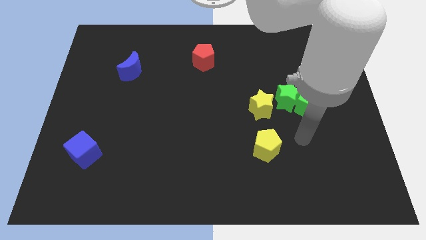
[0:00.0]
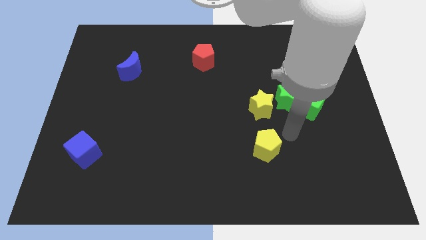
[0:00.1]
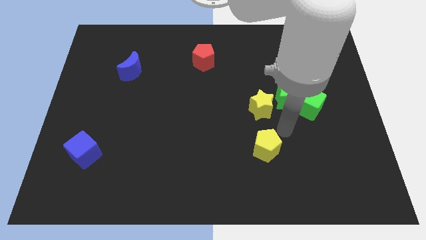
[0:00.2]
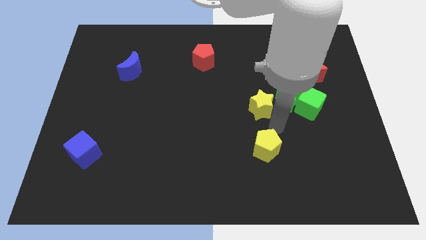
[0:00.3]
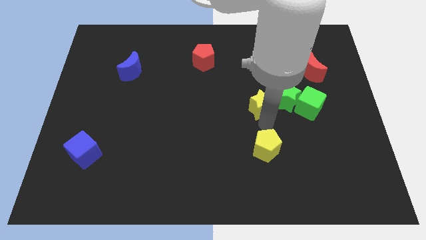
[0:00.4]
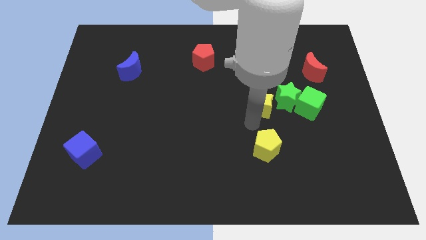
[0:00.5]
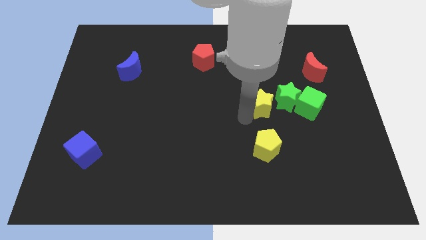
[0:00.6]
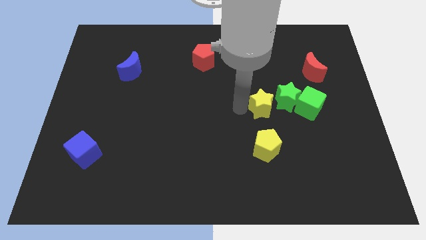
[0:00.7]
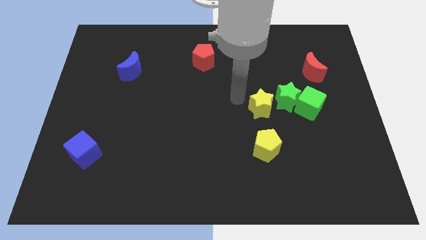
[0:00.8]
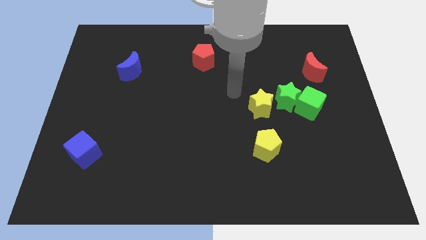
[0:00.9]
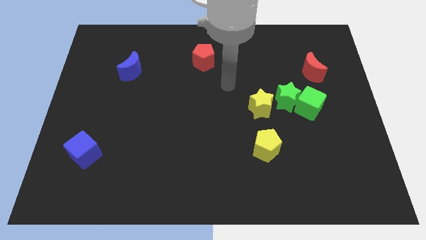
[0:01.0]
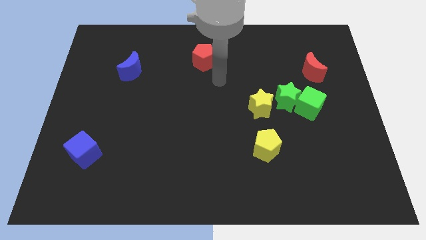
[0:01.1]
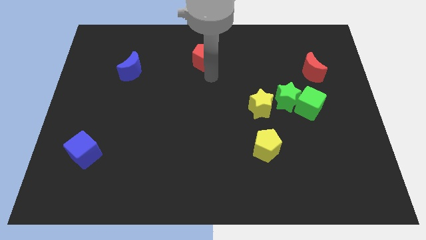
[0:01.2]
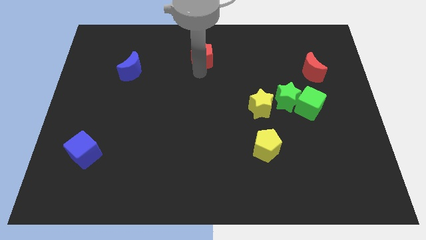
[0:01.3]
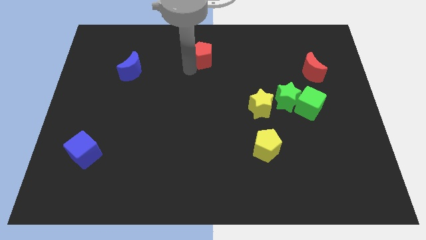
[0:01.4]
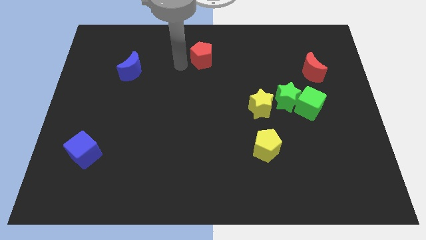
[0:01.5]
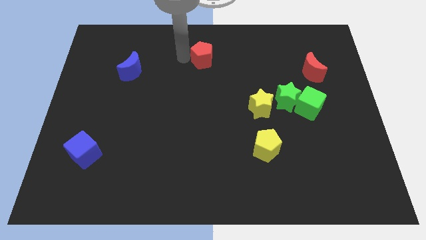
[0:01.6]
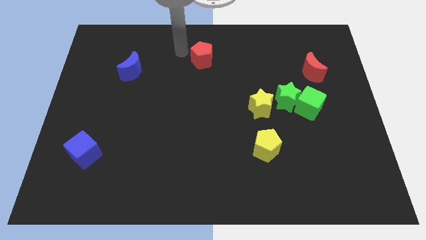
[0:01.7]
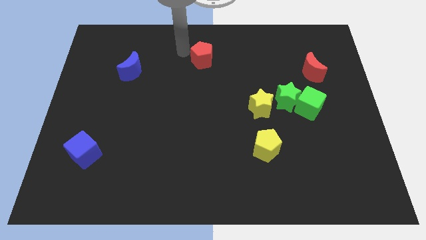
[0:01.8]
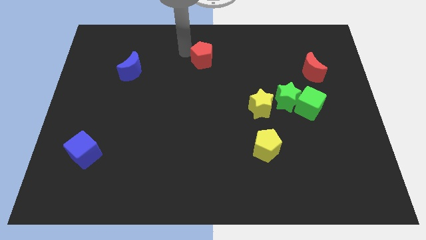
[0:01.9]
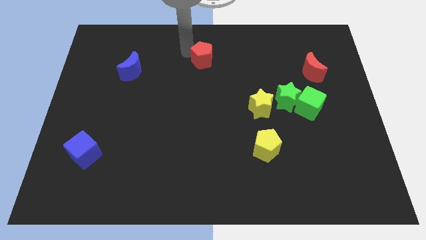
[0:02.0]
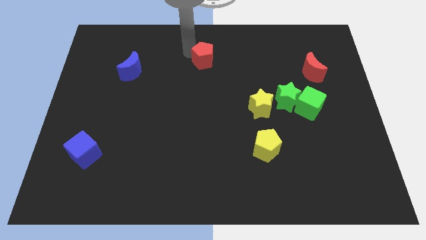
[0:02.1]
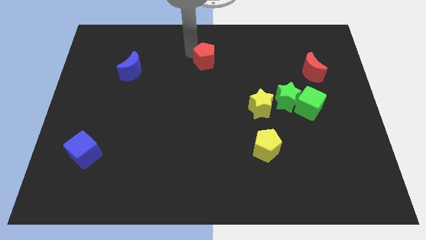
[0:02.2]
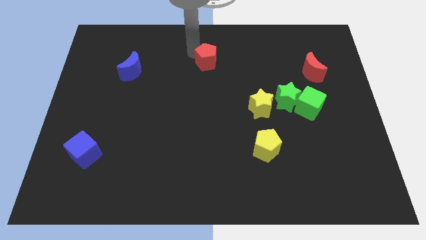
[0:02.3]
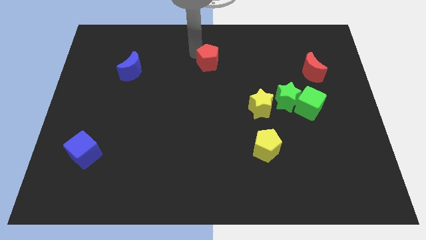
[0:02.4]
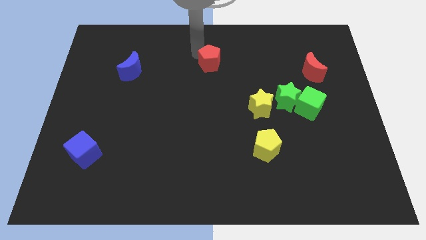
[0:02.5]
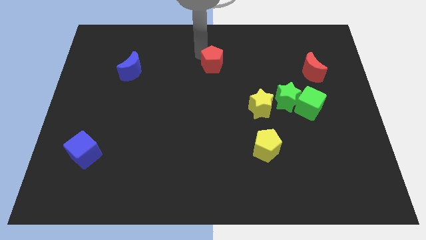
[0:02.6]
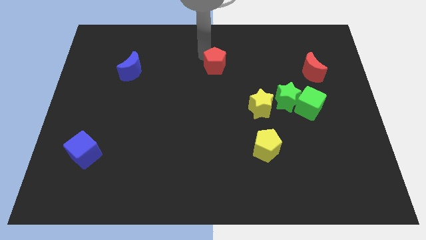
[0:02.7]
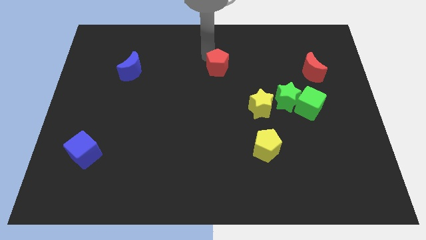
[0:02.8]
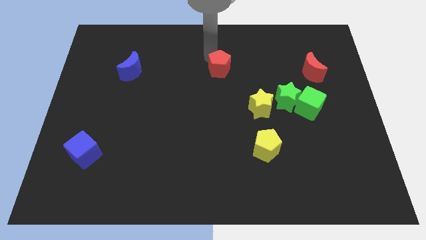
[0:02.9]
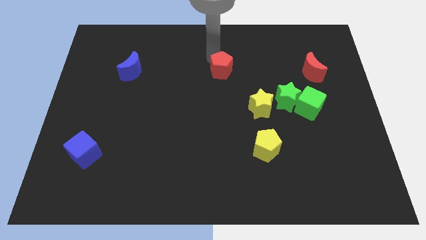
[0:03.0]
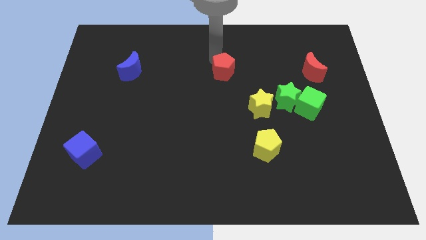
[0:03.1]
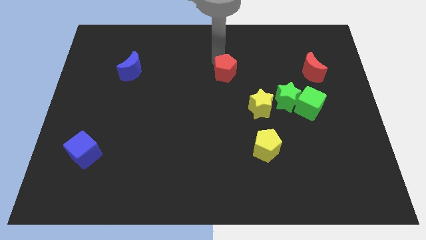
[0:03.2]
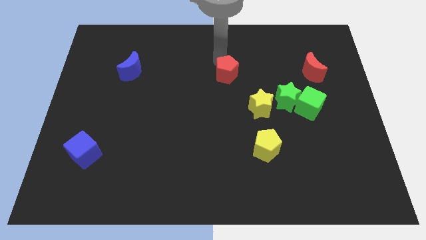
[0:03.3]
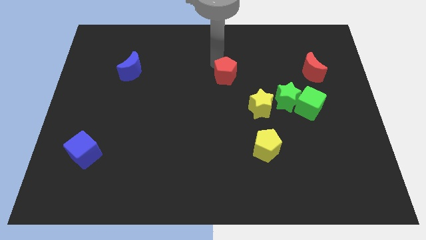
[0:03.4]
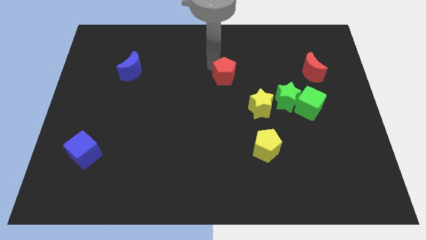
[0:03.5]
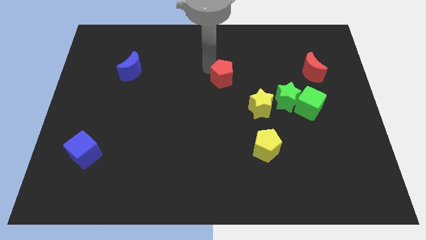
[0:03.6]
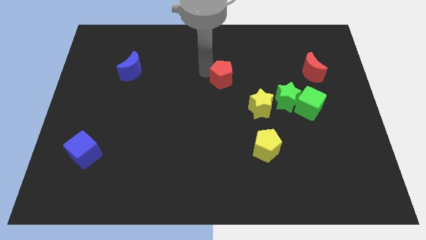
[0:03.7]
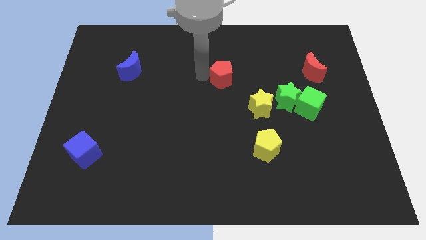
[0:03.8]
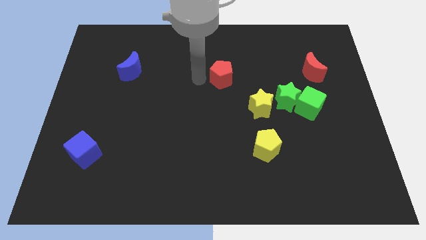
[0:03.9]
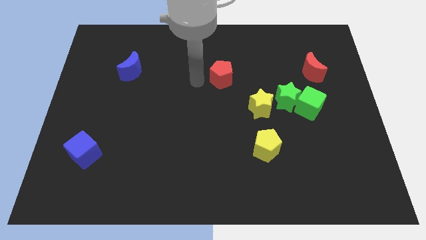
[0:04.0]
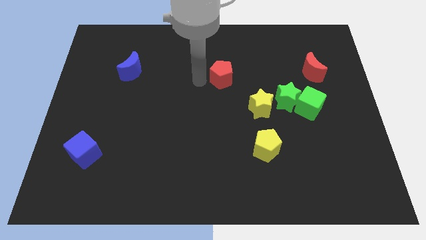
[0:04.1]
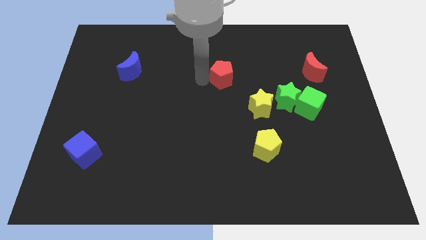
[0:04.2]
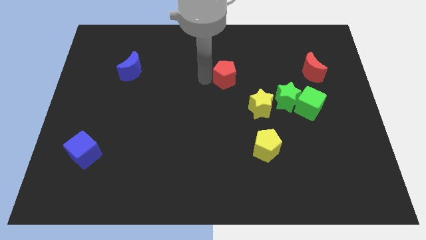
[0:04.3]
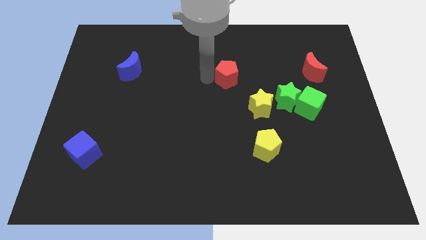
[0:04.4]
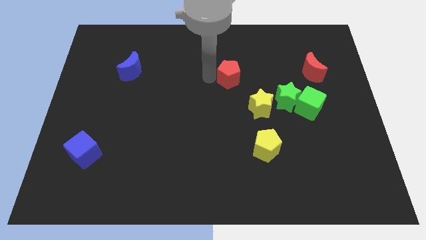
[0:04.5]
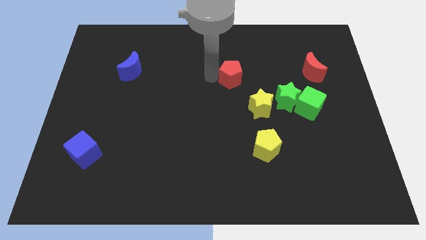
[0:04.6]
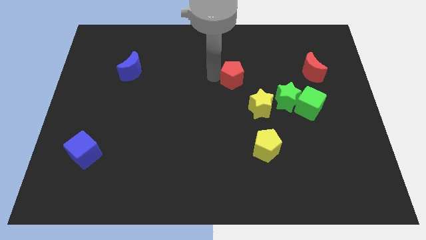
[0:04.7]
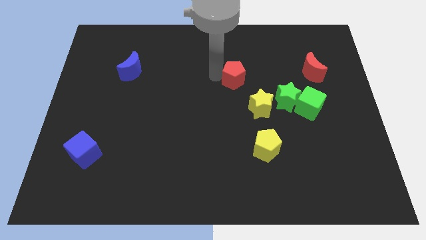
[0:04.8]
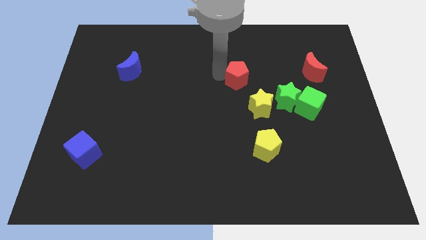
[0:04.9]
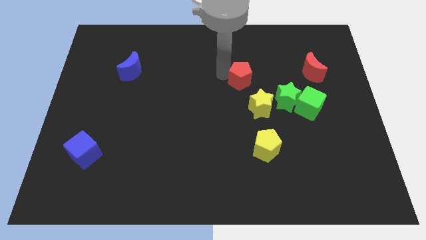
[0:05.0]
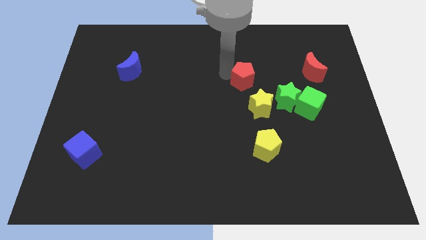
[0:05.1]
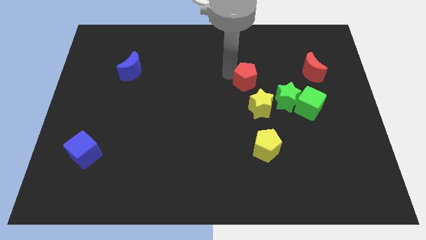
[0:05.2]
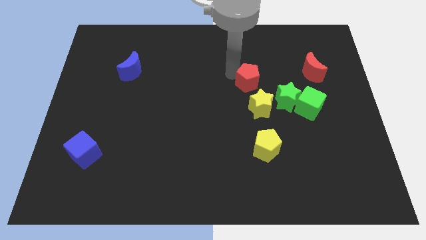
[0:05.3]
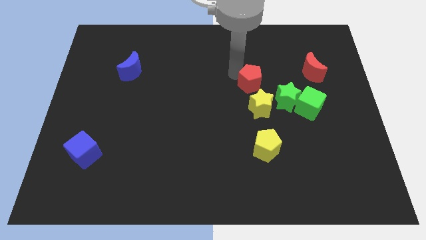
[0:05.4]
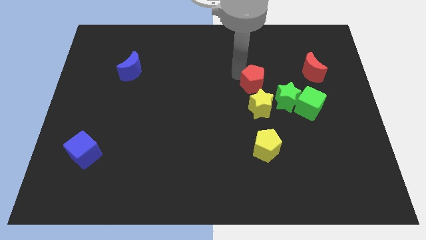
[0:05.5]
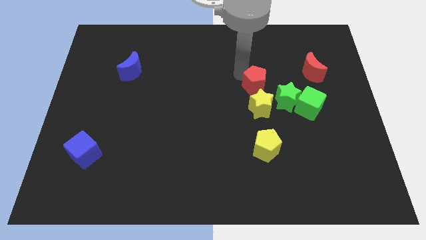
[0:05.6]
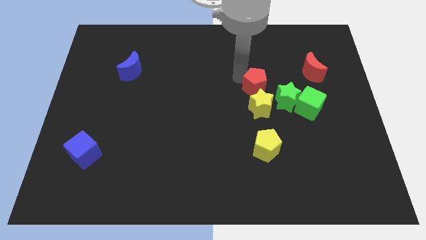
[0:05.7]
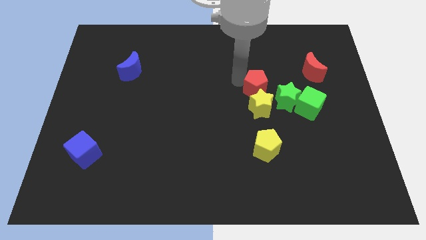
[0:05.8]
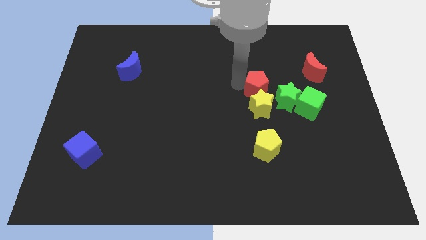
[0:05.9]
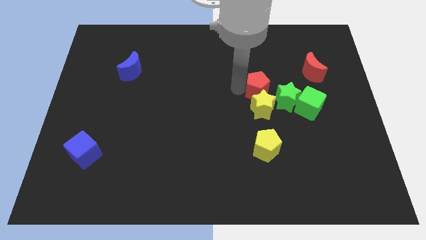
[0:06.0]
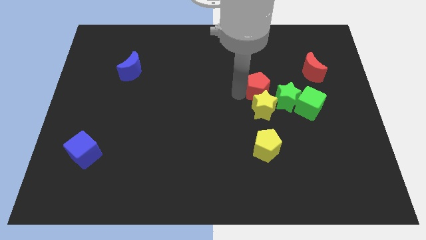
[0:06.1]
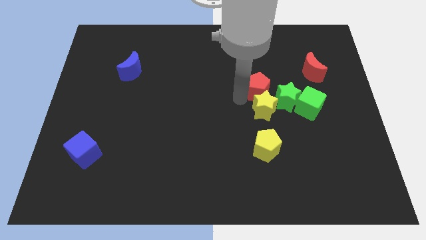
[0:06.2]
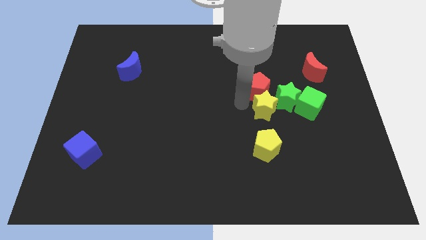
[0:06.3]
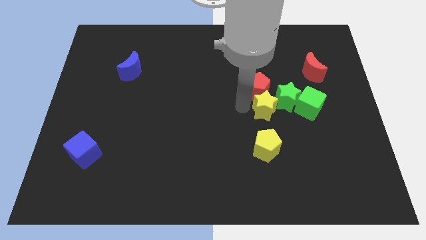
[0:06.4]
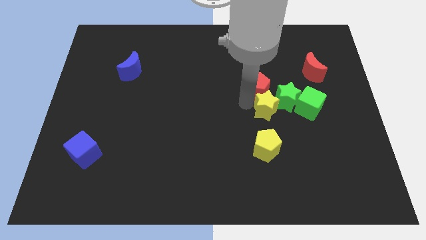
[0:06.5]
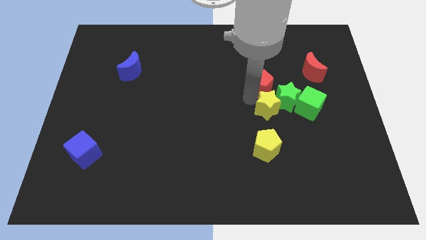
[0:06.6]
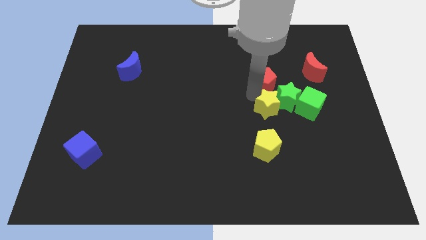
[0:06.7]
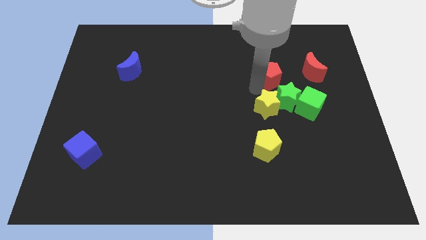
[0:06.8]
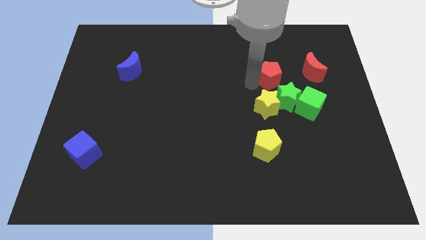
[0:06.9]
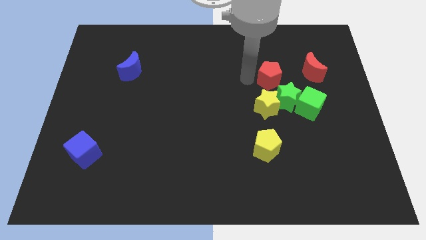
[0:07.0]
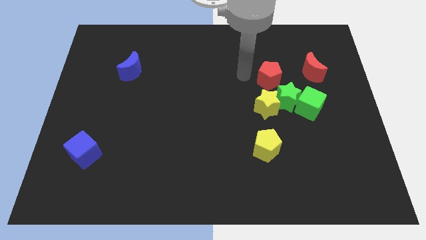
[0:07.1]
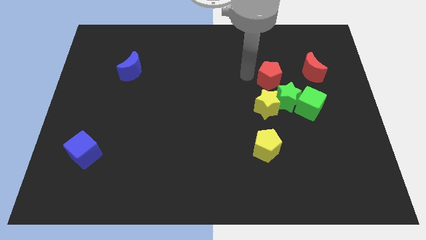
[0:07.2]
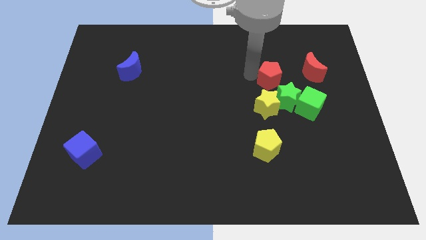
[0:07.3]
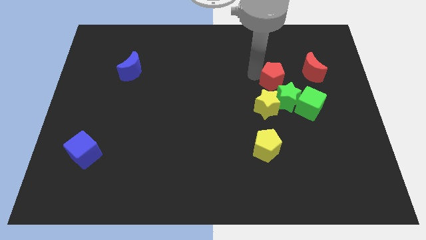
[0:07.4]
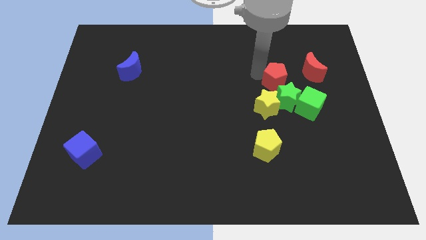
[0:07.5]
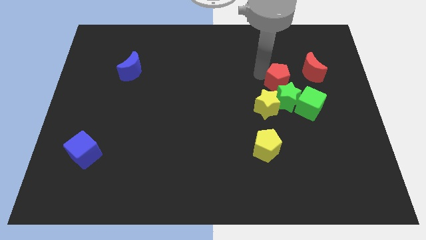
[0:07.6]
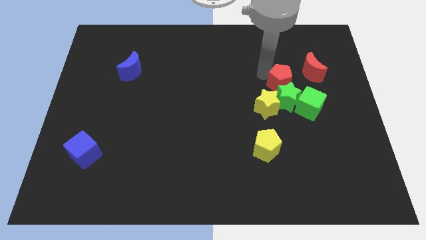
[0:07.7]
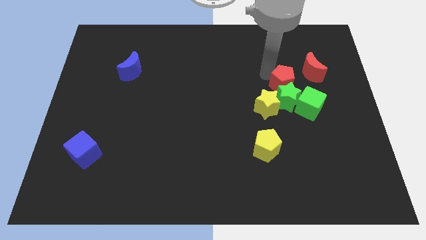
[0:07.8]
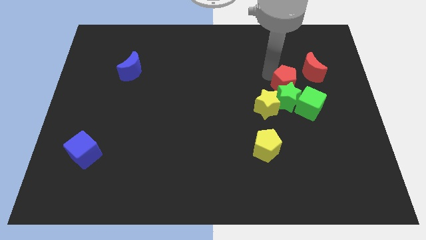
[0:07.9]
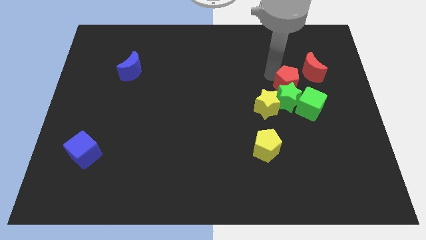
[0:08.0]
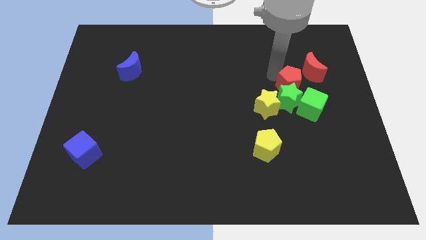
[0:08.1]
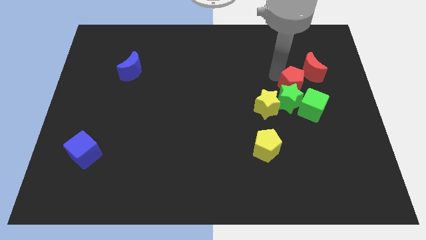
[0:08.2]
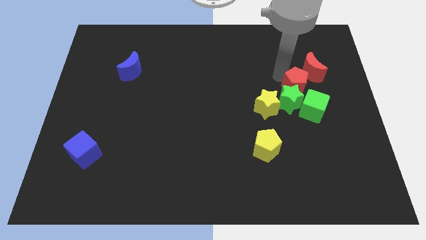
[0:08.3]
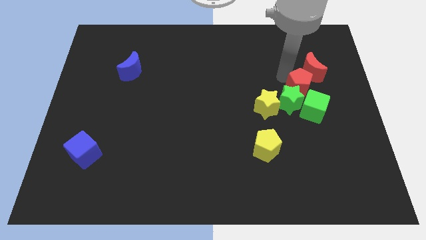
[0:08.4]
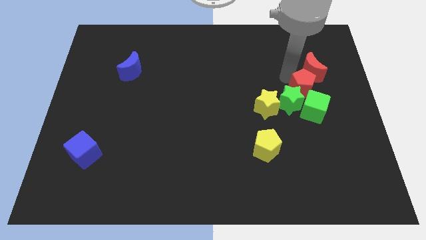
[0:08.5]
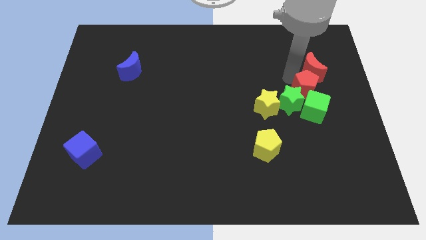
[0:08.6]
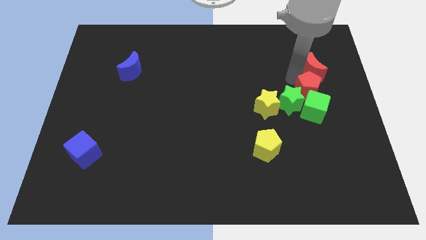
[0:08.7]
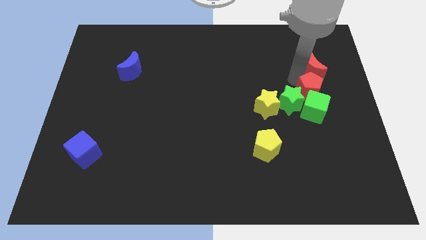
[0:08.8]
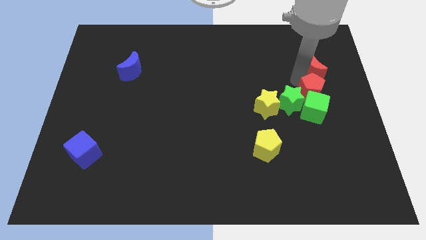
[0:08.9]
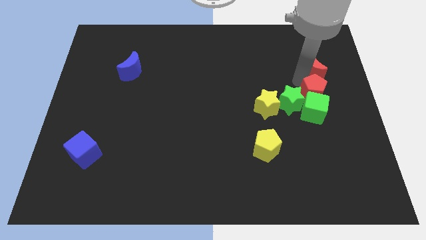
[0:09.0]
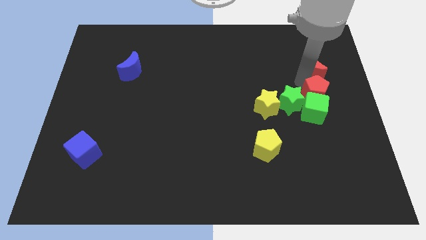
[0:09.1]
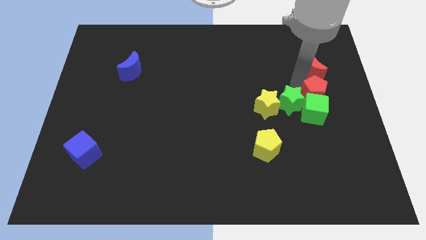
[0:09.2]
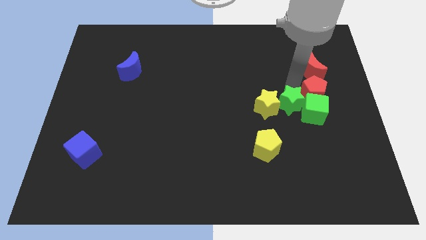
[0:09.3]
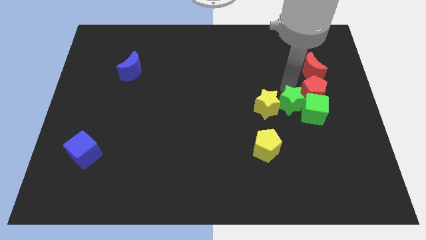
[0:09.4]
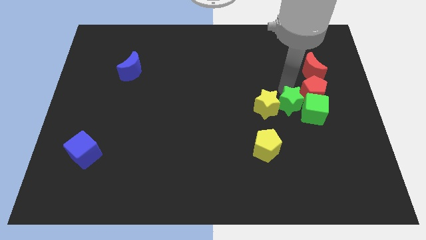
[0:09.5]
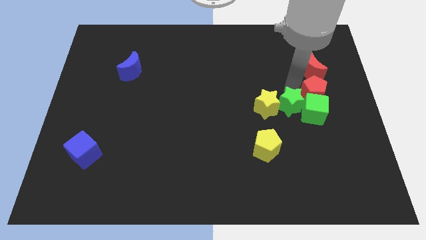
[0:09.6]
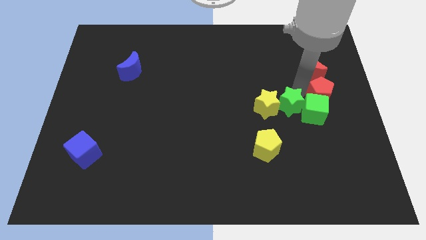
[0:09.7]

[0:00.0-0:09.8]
slide the red pentagon to the center right
